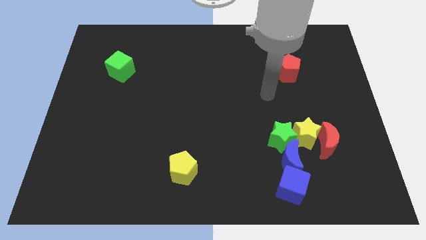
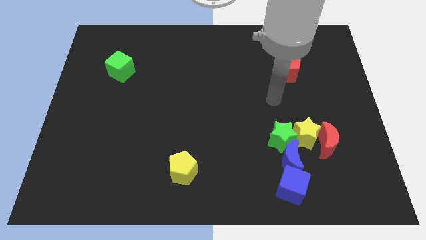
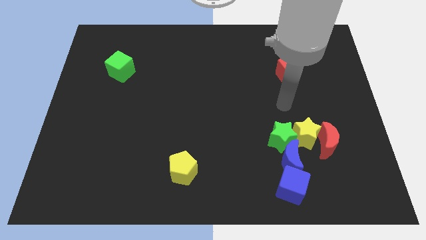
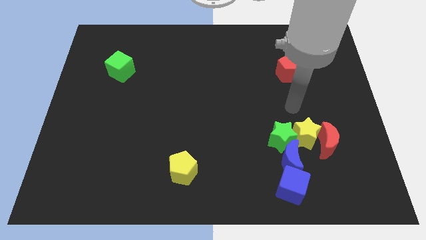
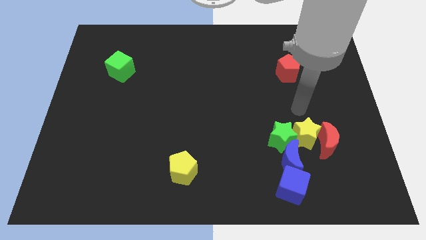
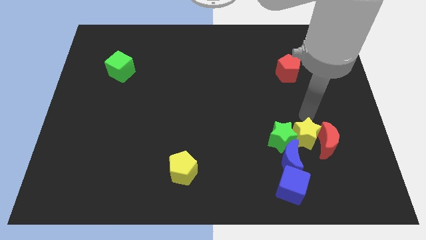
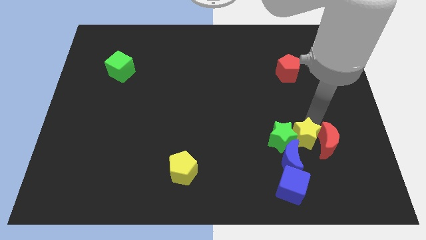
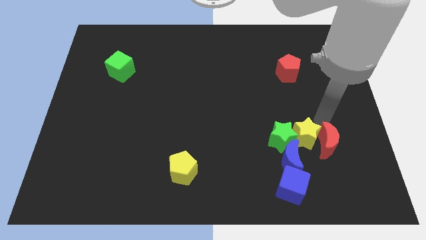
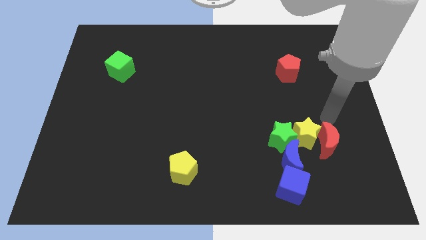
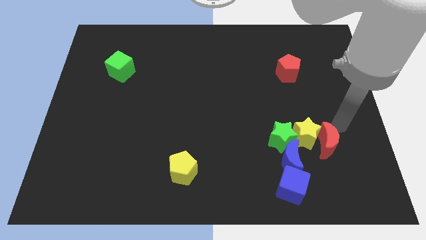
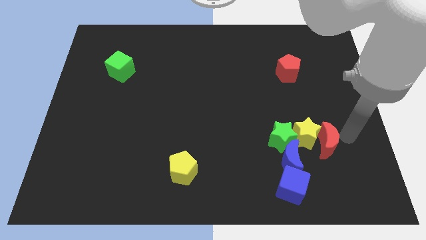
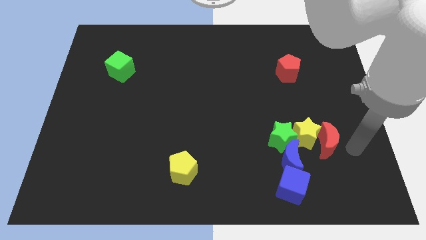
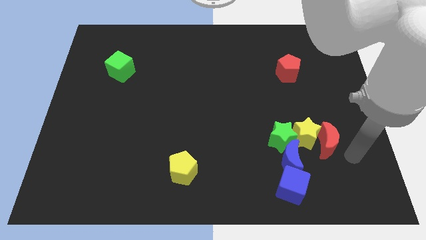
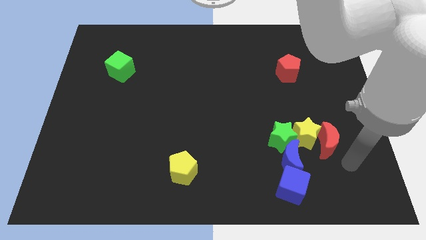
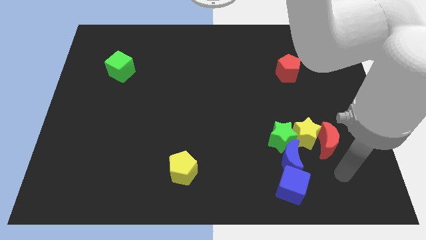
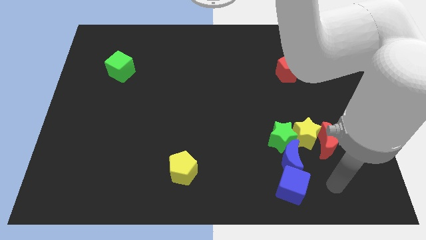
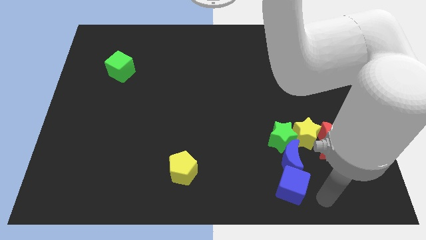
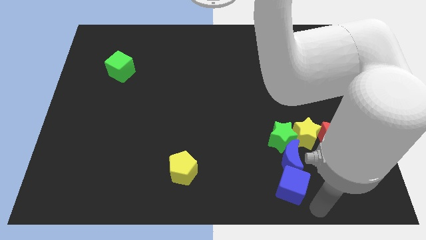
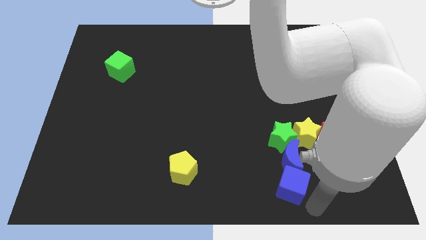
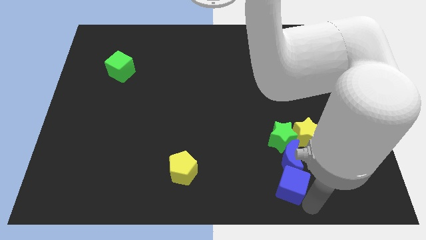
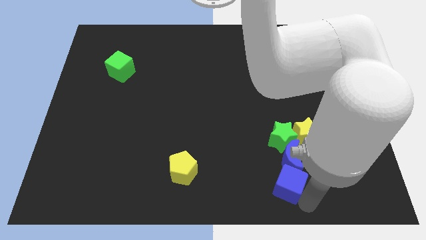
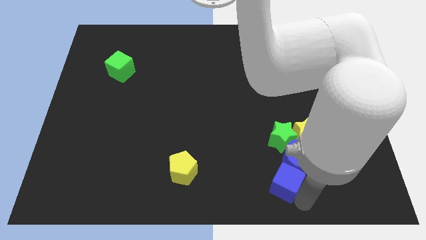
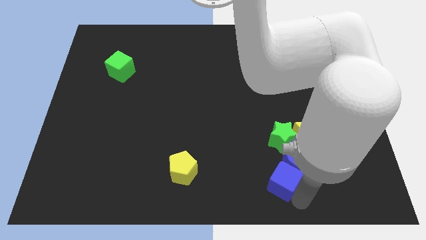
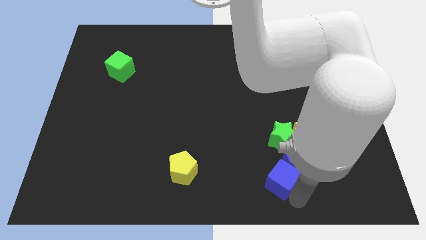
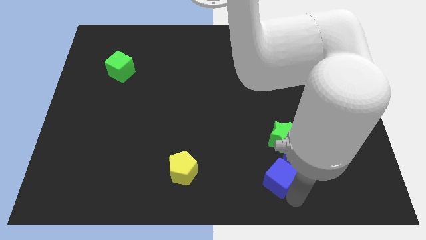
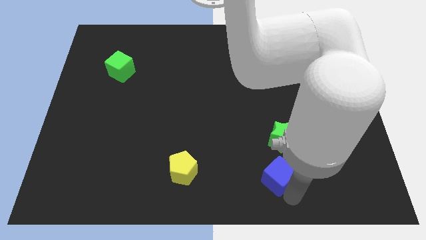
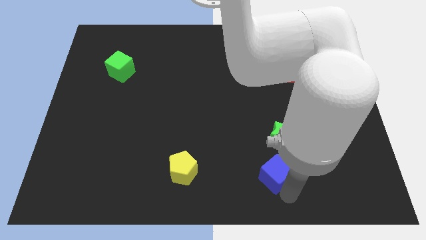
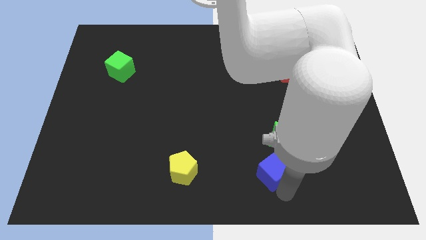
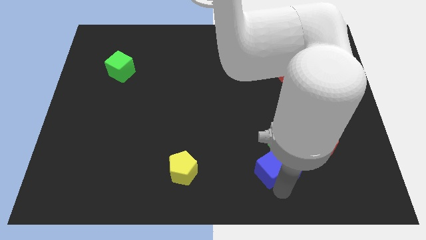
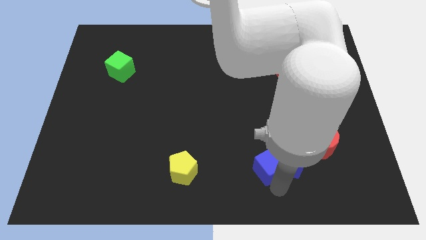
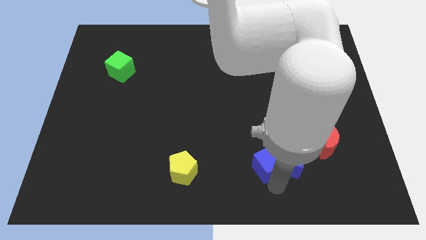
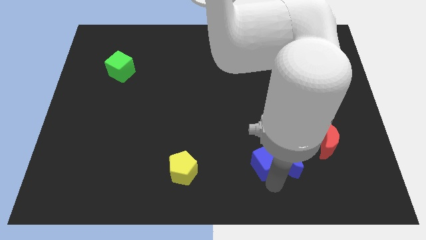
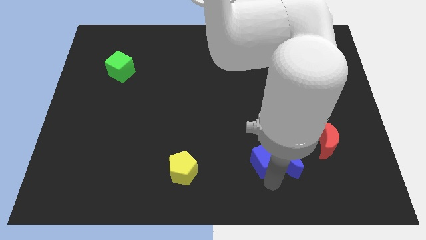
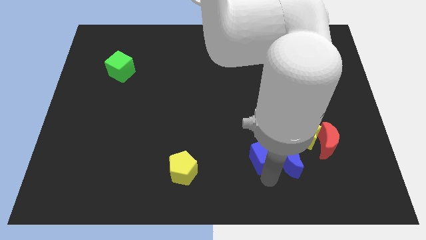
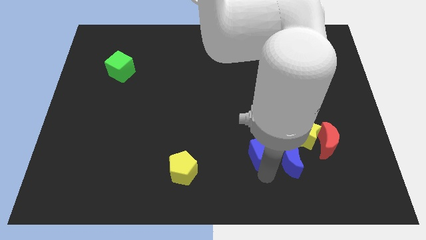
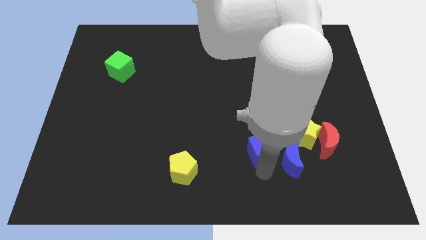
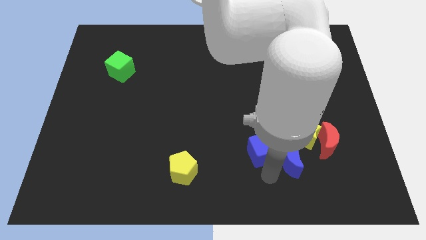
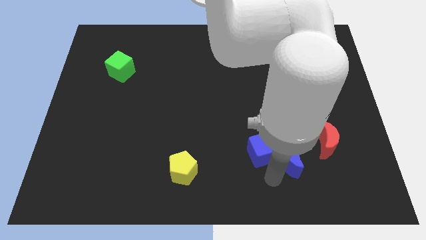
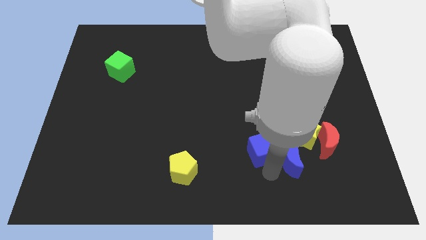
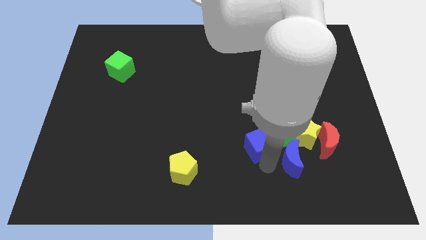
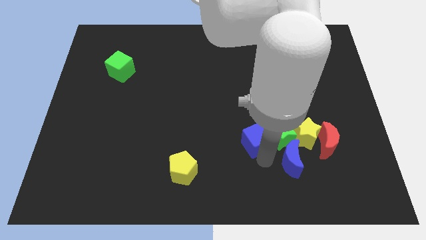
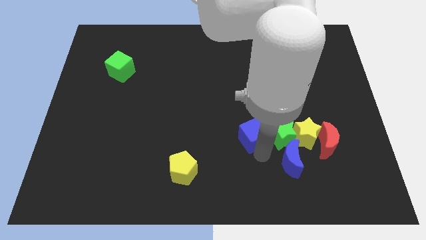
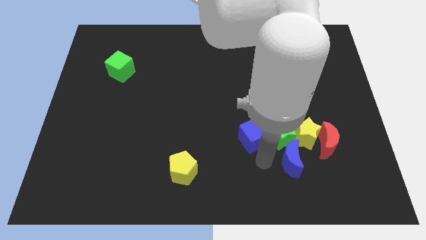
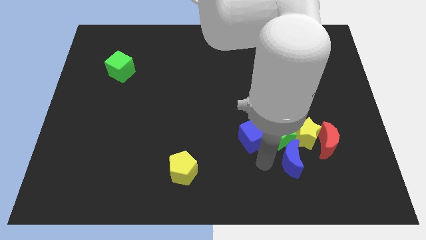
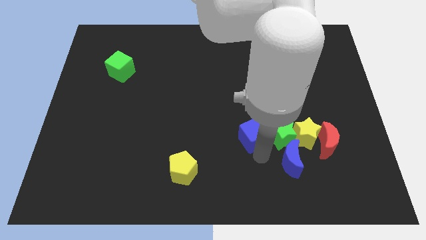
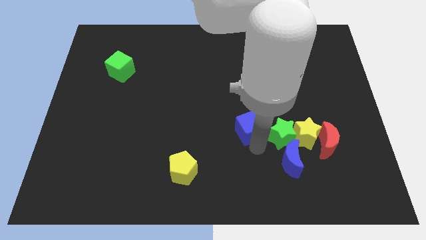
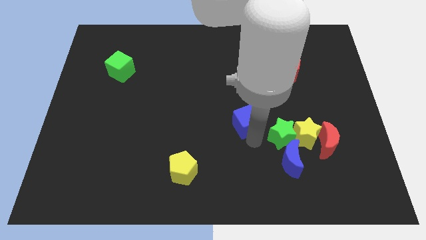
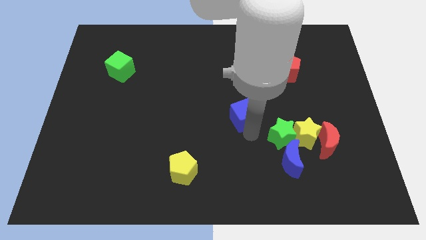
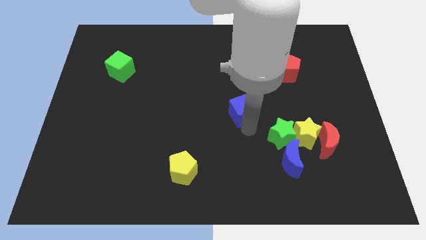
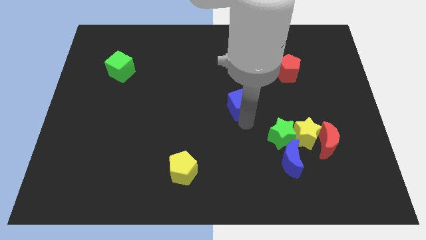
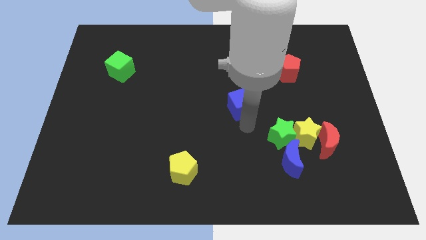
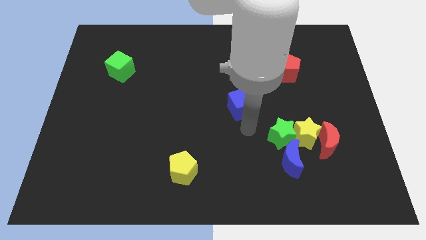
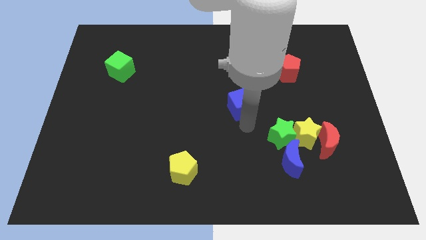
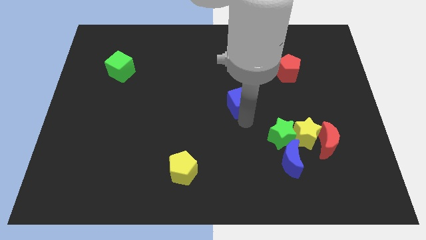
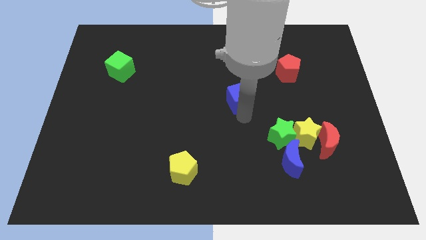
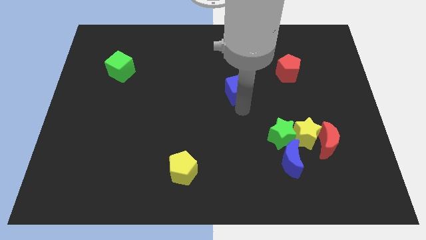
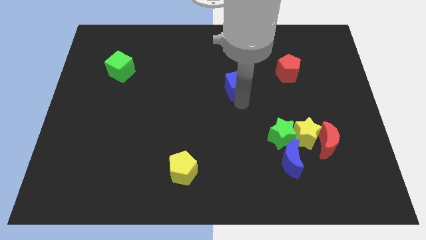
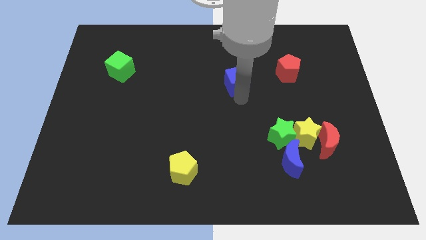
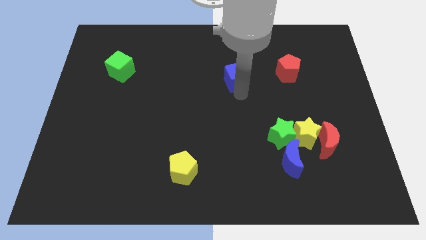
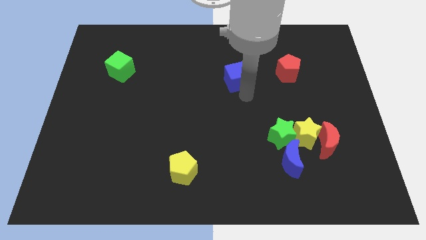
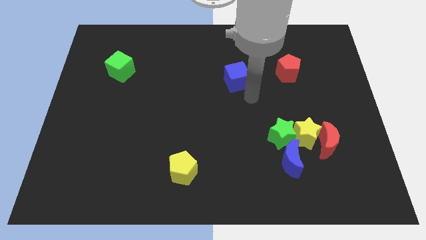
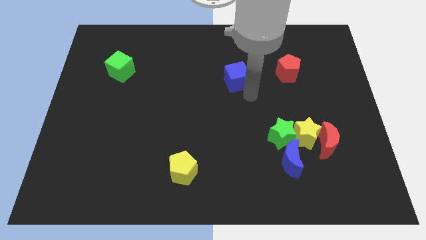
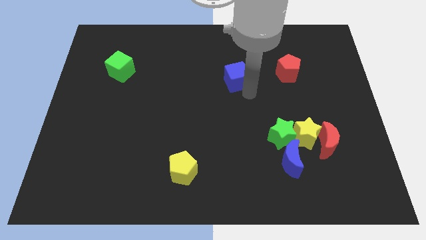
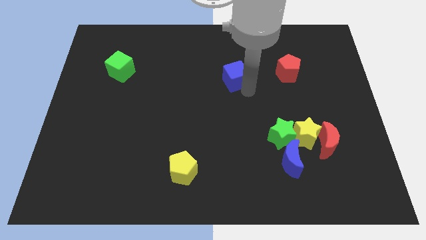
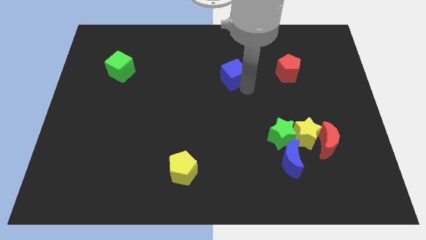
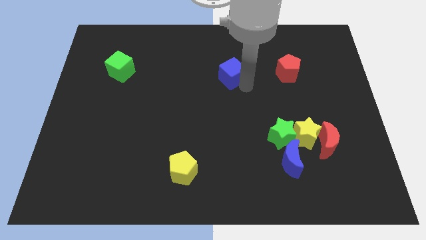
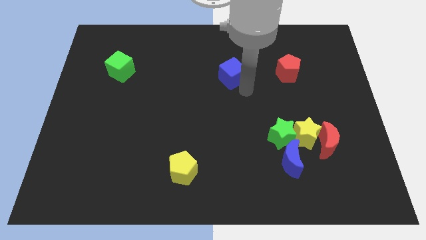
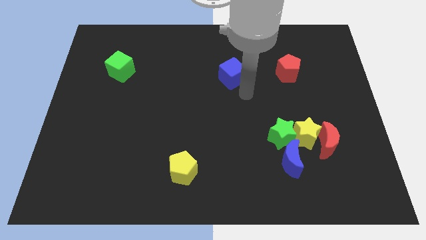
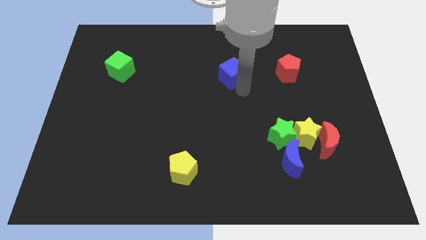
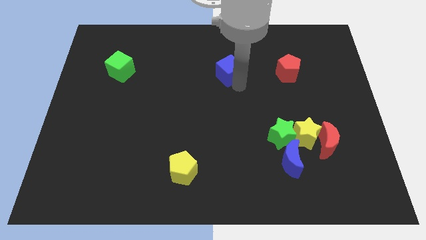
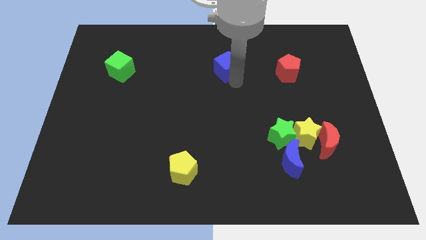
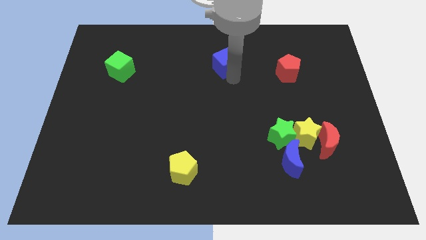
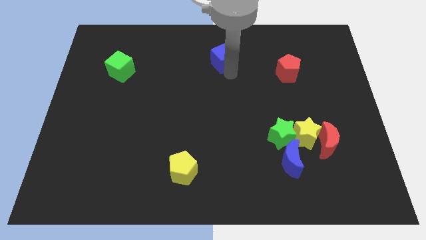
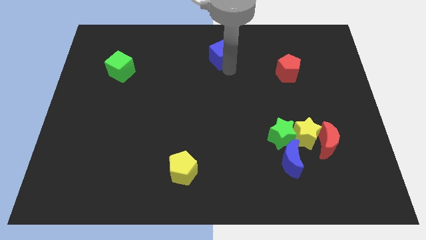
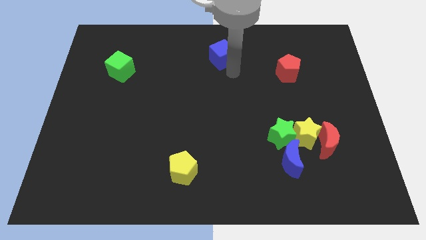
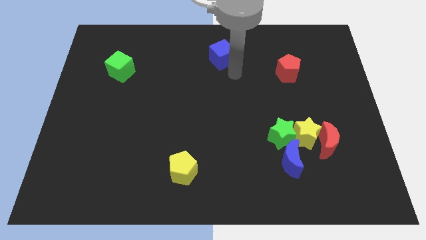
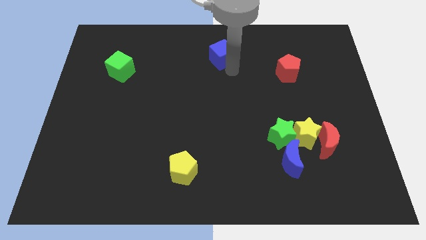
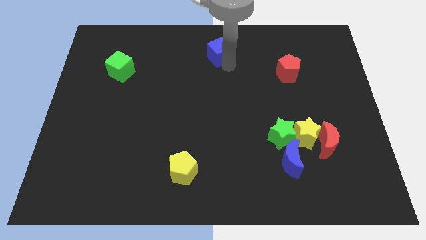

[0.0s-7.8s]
move the blue cube to the towards your base
